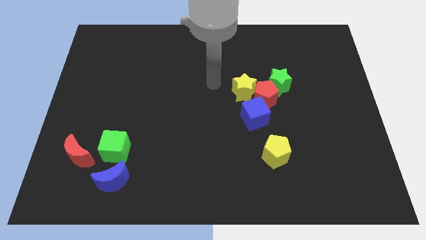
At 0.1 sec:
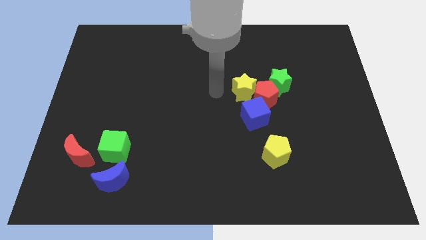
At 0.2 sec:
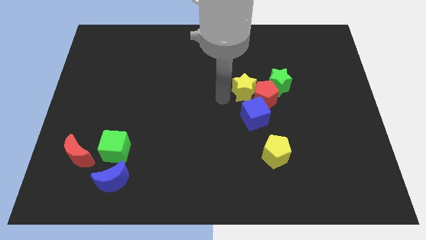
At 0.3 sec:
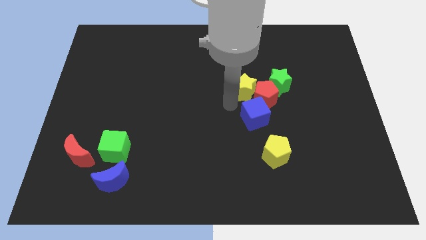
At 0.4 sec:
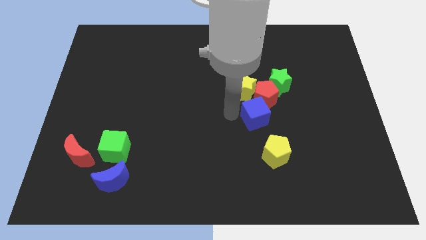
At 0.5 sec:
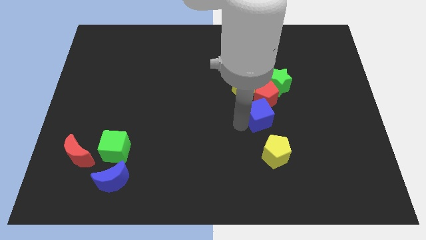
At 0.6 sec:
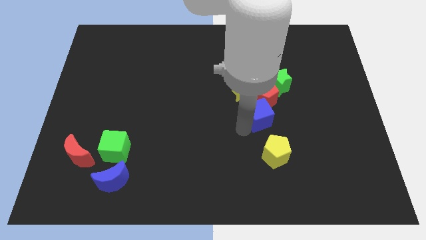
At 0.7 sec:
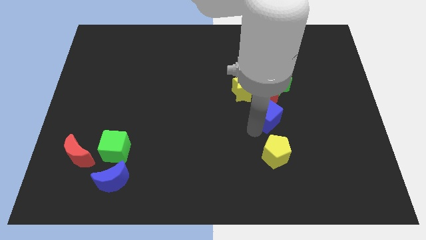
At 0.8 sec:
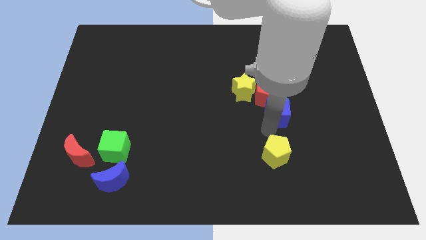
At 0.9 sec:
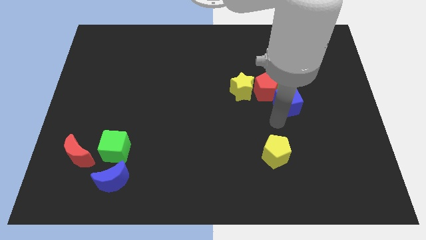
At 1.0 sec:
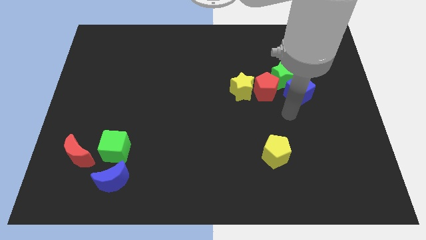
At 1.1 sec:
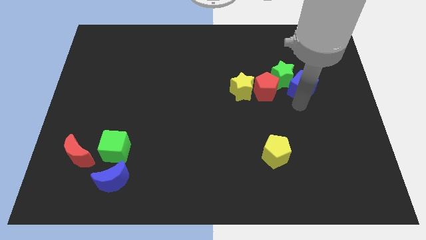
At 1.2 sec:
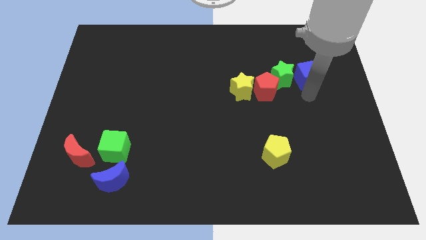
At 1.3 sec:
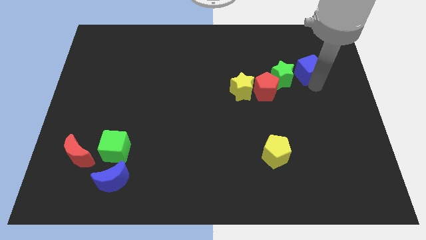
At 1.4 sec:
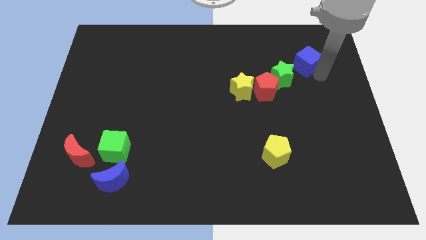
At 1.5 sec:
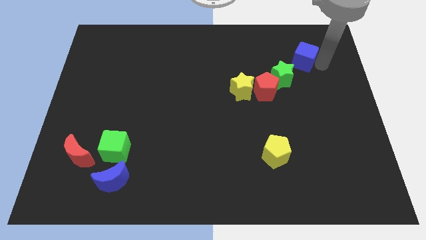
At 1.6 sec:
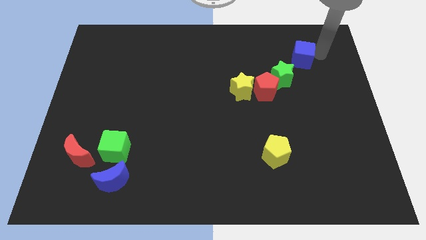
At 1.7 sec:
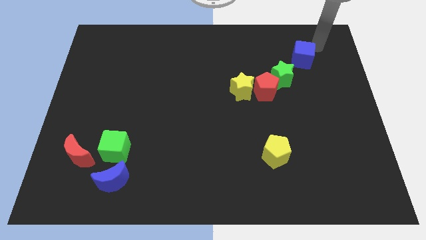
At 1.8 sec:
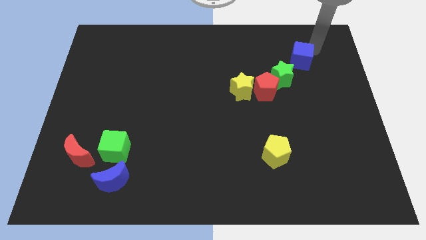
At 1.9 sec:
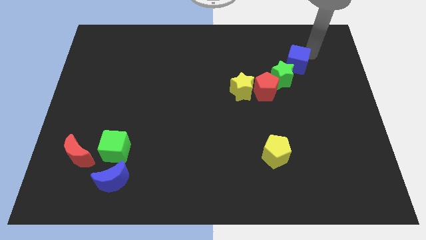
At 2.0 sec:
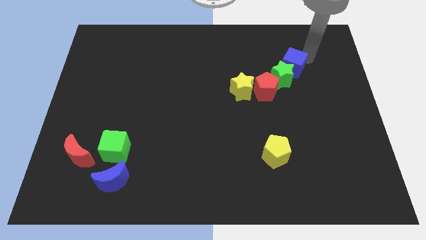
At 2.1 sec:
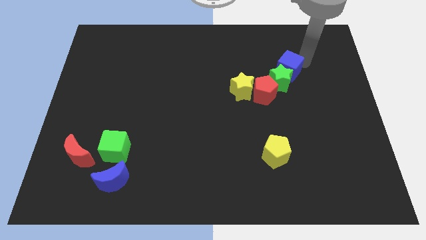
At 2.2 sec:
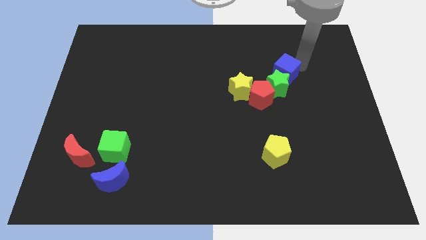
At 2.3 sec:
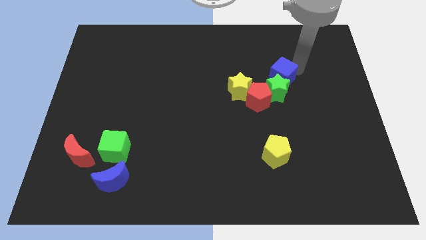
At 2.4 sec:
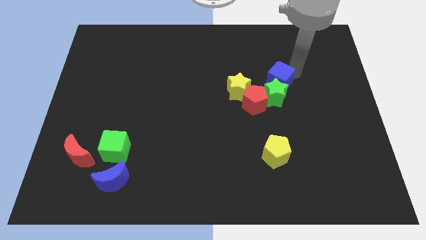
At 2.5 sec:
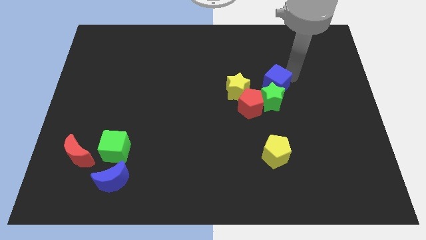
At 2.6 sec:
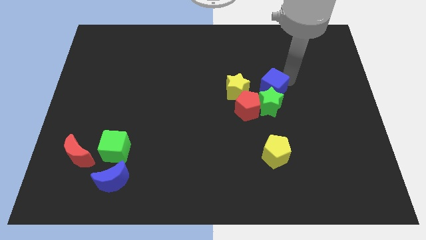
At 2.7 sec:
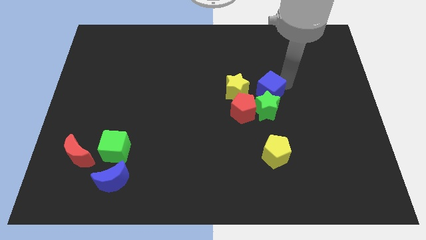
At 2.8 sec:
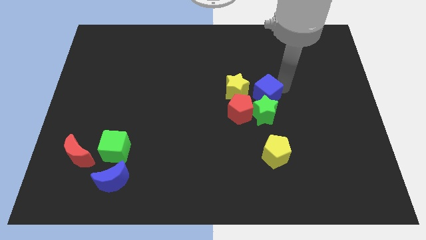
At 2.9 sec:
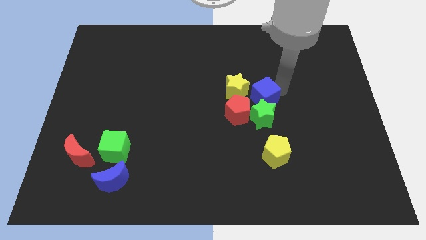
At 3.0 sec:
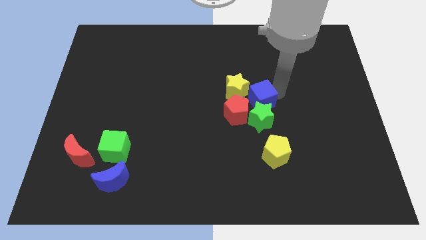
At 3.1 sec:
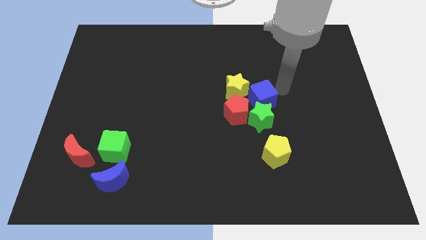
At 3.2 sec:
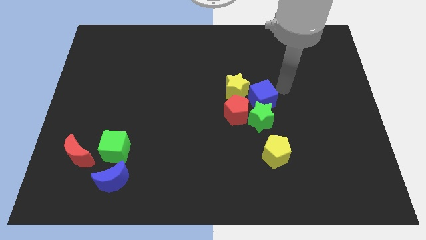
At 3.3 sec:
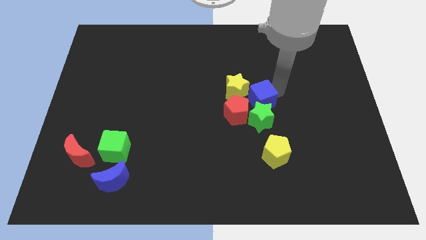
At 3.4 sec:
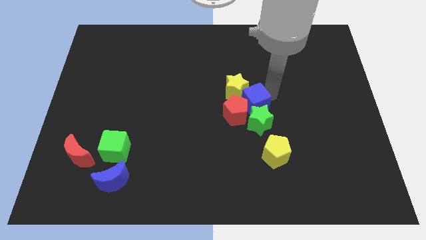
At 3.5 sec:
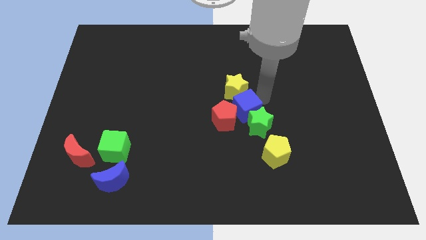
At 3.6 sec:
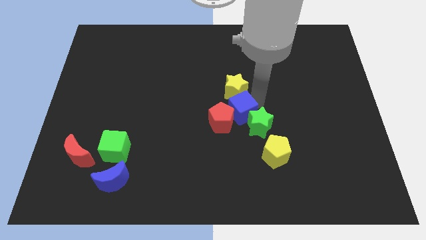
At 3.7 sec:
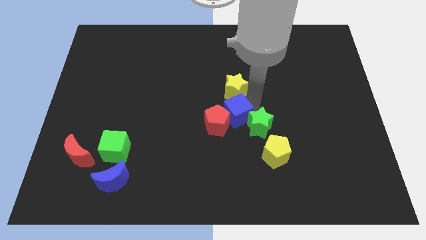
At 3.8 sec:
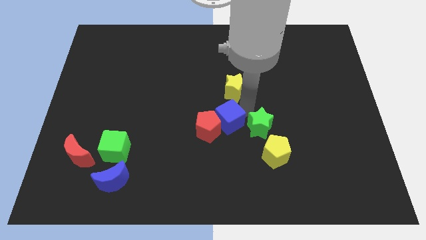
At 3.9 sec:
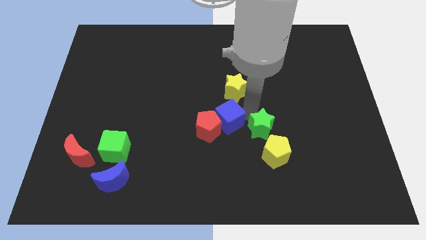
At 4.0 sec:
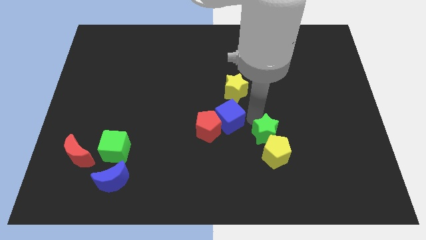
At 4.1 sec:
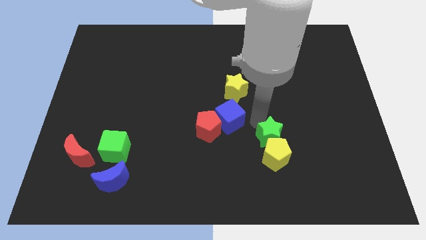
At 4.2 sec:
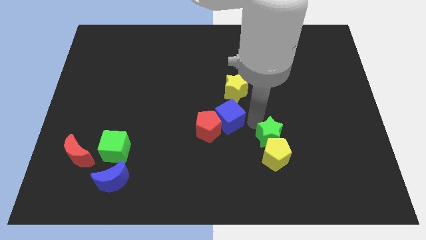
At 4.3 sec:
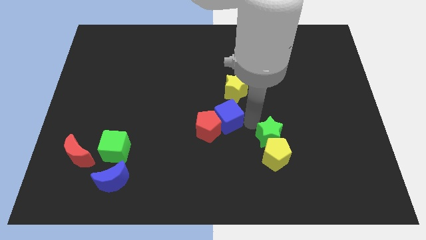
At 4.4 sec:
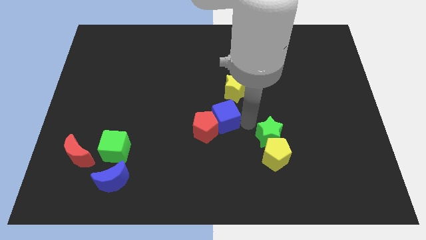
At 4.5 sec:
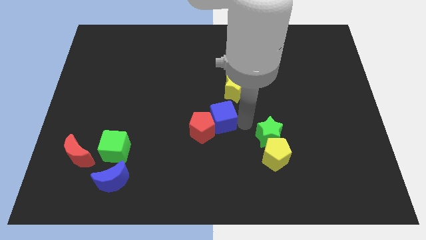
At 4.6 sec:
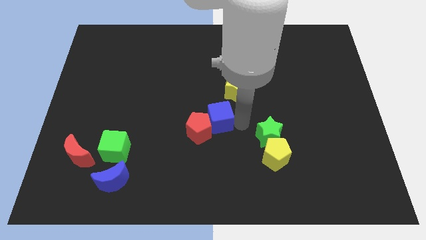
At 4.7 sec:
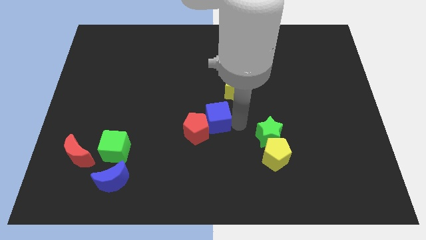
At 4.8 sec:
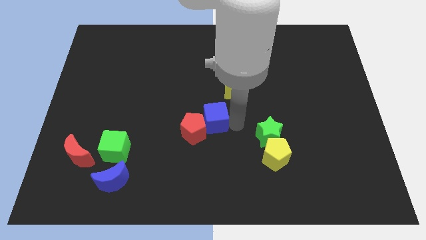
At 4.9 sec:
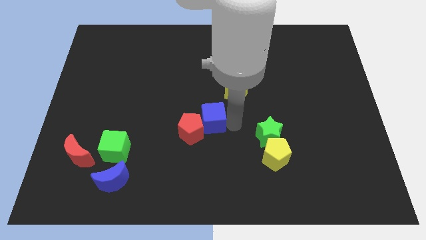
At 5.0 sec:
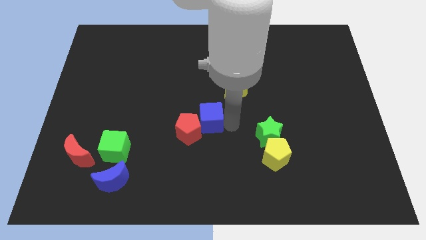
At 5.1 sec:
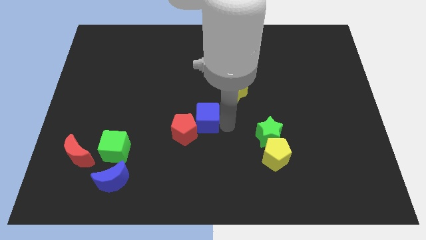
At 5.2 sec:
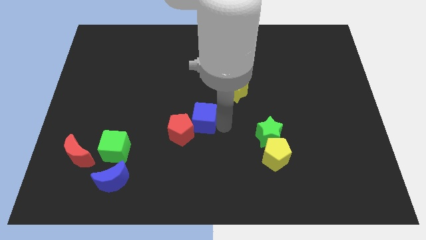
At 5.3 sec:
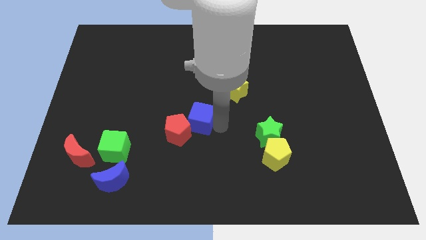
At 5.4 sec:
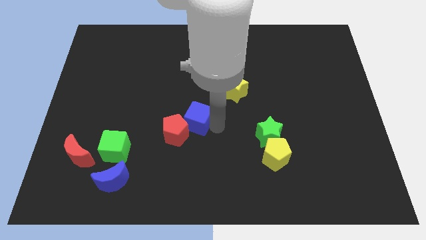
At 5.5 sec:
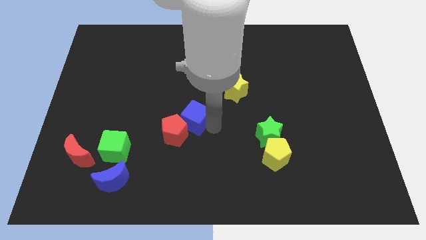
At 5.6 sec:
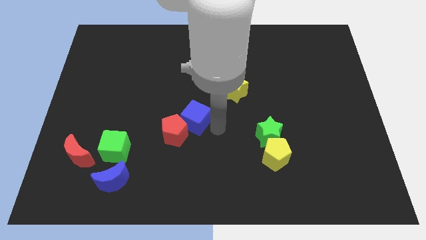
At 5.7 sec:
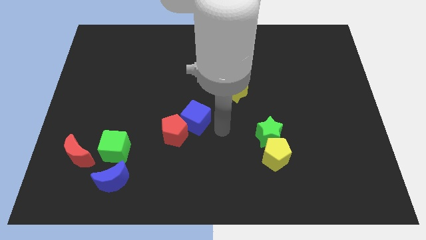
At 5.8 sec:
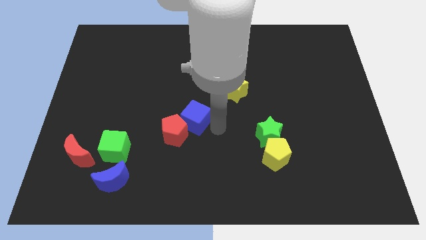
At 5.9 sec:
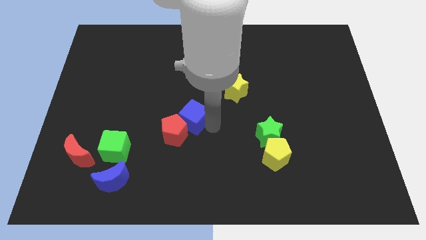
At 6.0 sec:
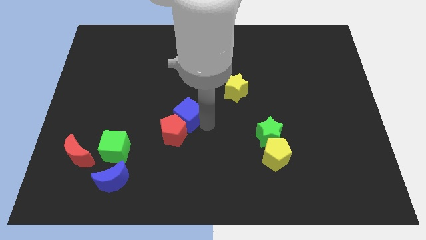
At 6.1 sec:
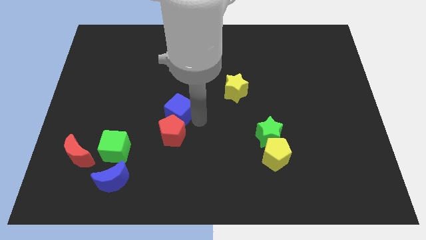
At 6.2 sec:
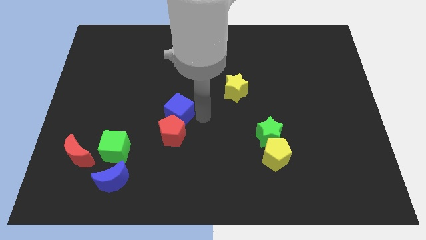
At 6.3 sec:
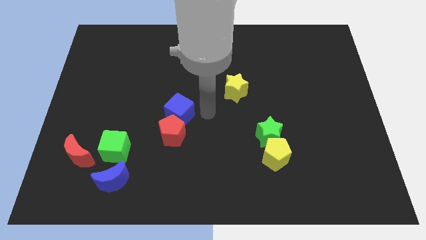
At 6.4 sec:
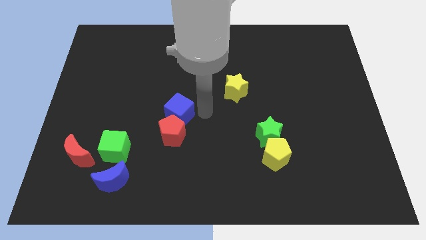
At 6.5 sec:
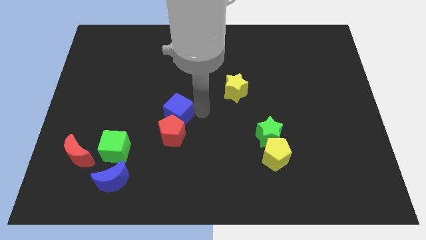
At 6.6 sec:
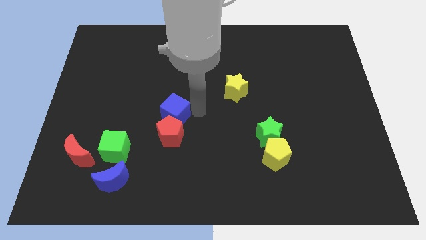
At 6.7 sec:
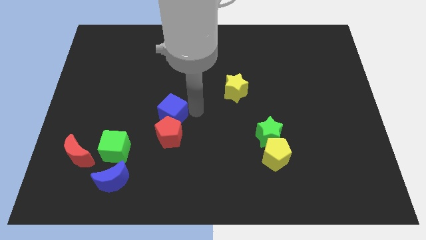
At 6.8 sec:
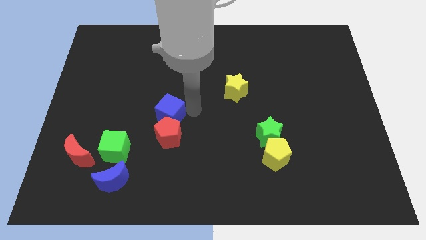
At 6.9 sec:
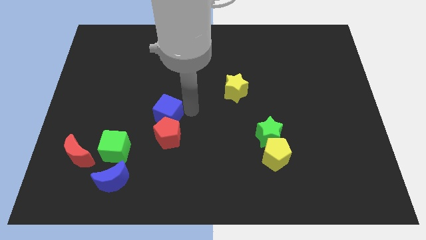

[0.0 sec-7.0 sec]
push the blue cube left

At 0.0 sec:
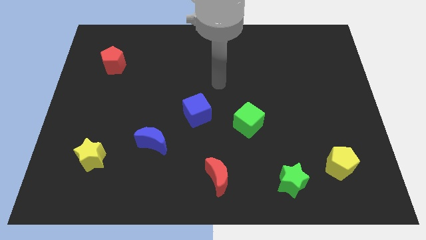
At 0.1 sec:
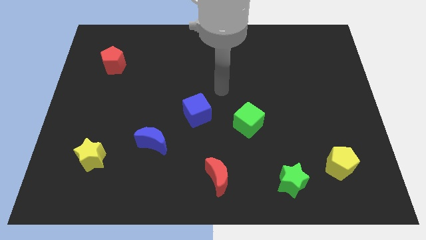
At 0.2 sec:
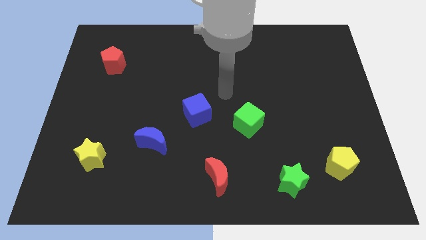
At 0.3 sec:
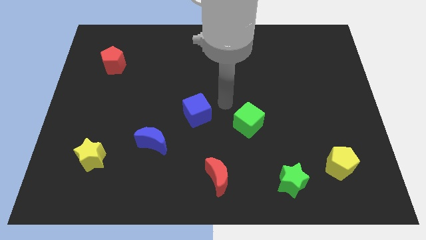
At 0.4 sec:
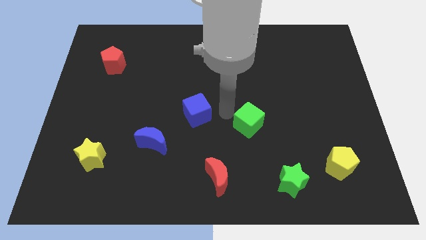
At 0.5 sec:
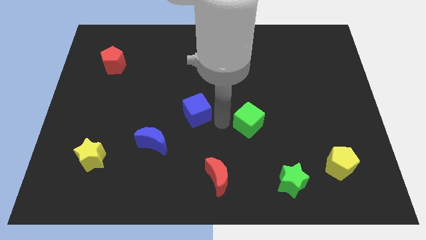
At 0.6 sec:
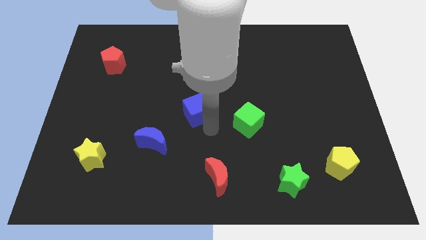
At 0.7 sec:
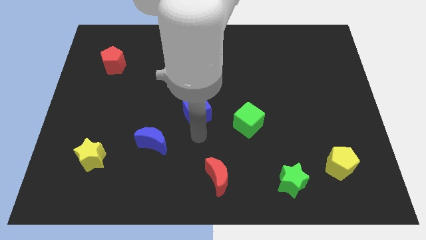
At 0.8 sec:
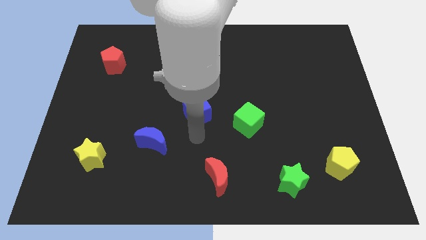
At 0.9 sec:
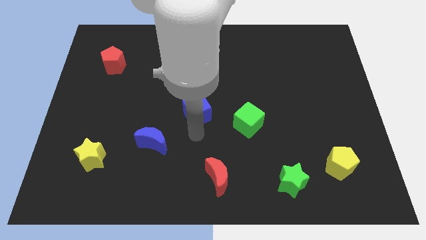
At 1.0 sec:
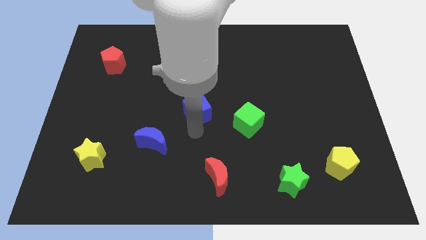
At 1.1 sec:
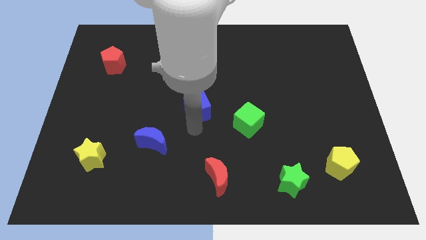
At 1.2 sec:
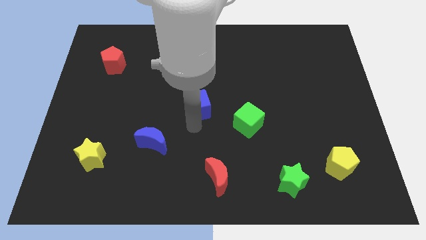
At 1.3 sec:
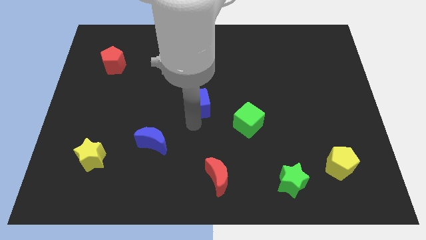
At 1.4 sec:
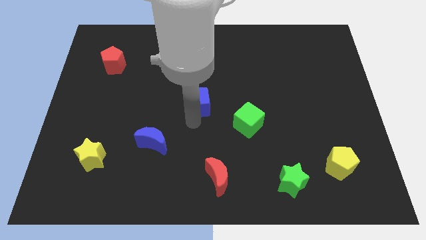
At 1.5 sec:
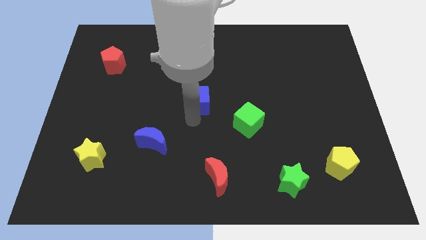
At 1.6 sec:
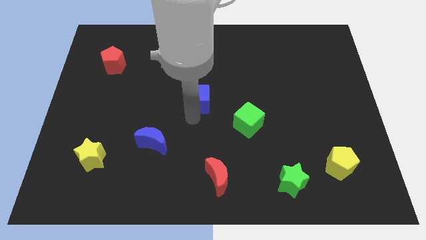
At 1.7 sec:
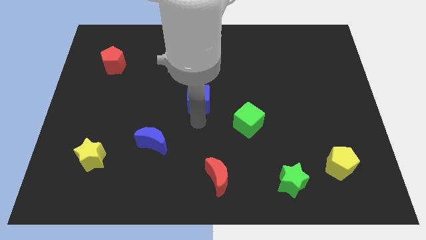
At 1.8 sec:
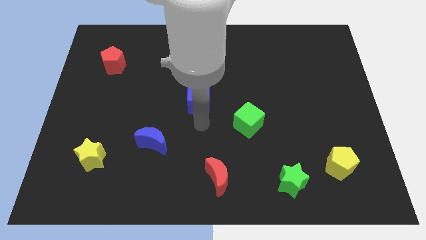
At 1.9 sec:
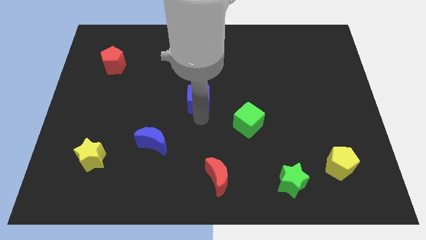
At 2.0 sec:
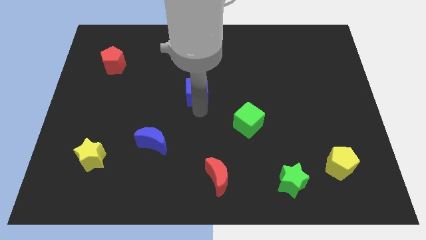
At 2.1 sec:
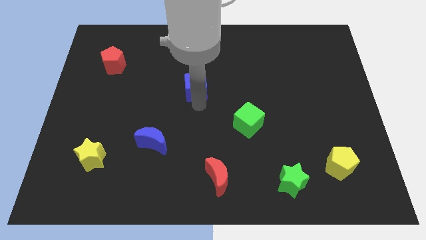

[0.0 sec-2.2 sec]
slide the blue cube a little bit upwards
